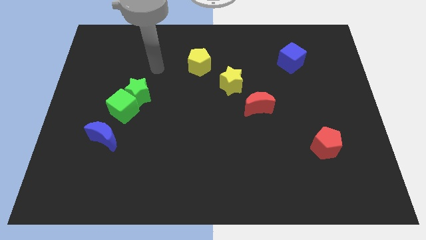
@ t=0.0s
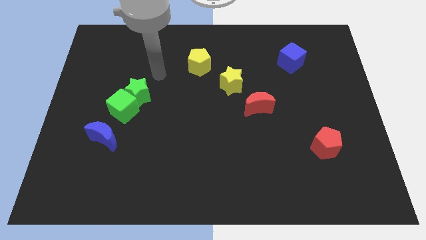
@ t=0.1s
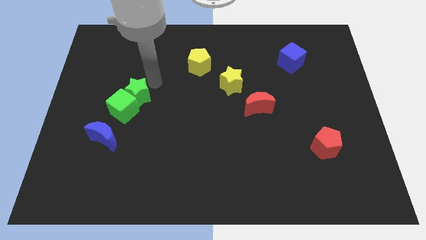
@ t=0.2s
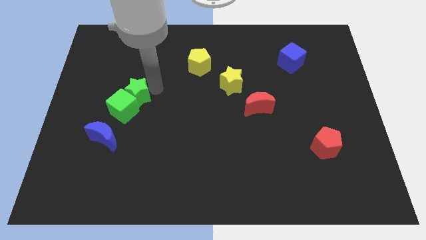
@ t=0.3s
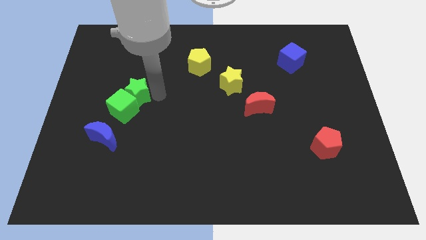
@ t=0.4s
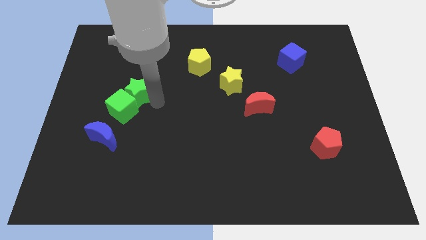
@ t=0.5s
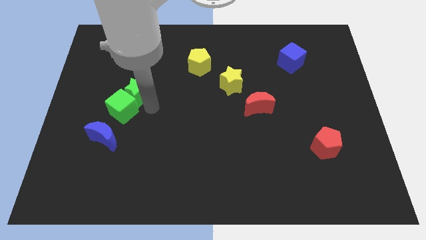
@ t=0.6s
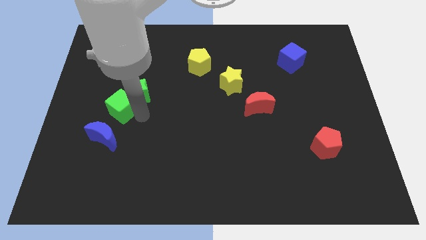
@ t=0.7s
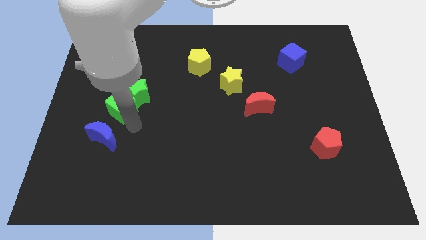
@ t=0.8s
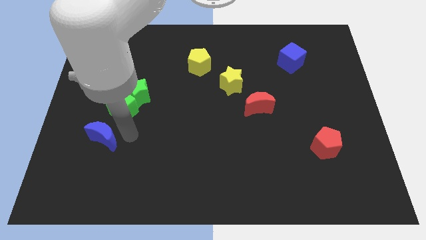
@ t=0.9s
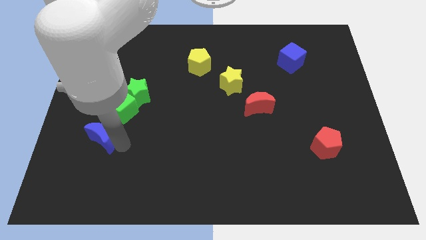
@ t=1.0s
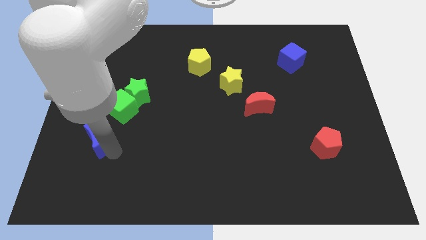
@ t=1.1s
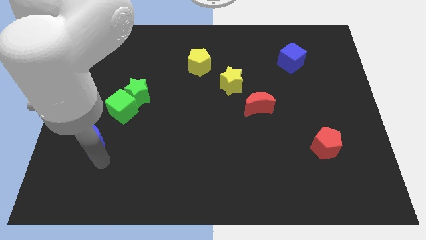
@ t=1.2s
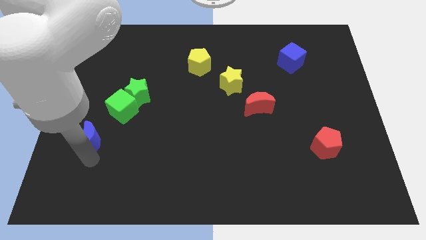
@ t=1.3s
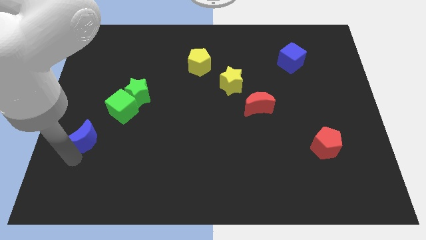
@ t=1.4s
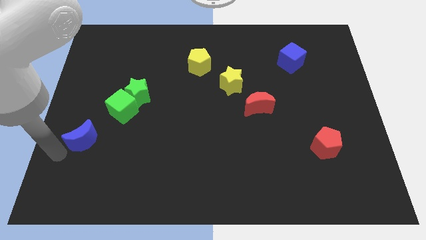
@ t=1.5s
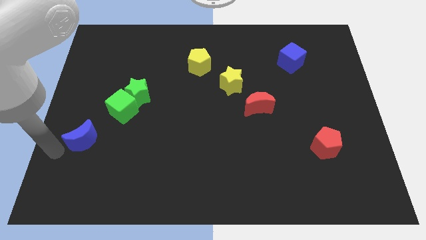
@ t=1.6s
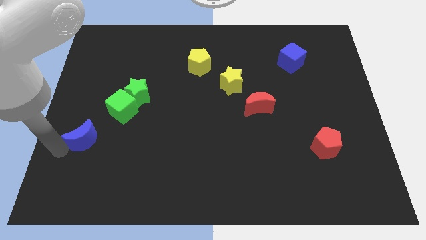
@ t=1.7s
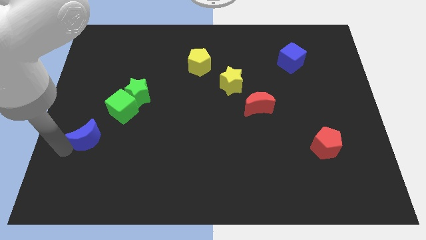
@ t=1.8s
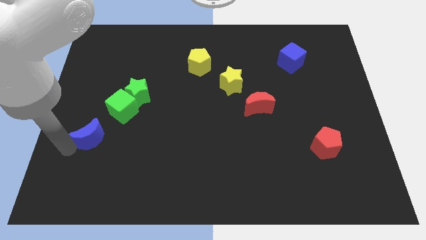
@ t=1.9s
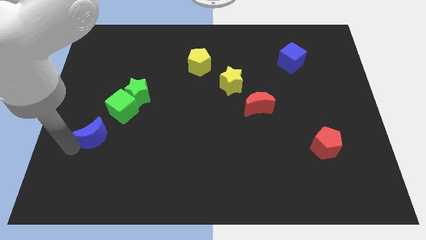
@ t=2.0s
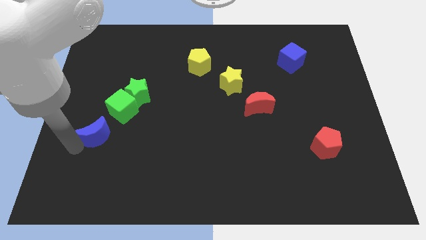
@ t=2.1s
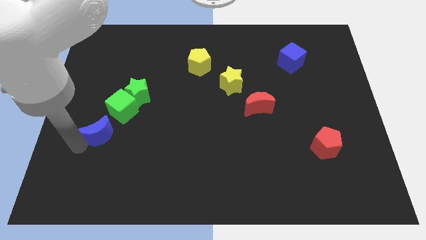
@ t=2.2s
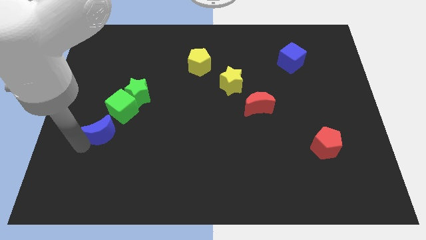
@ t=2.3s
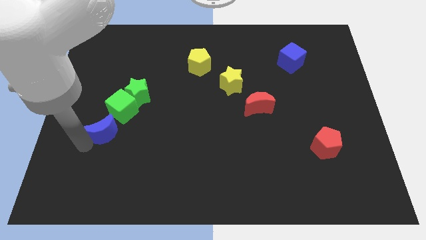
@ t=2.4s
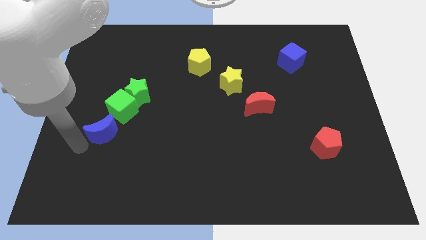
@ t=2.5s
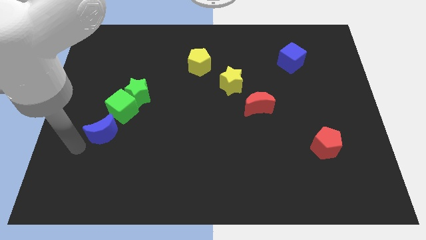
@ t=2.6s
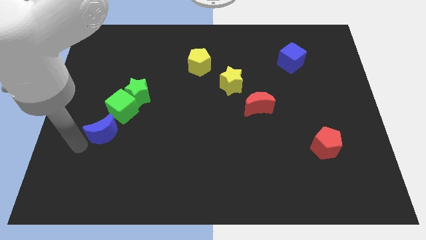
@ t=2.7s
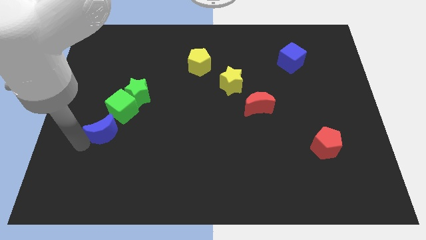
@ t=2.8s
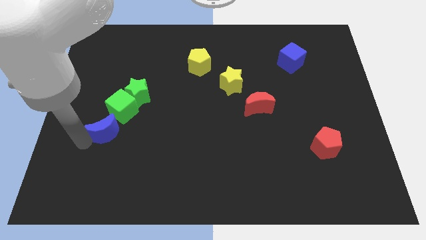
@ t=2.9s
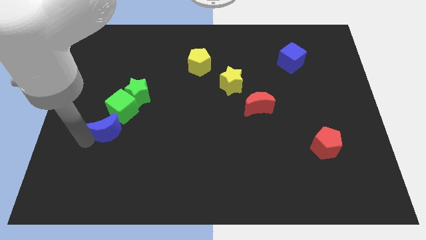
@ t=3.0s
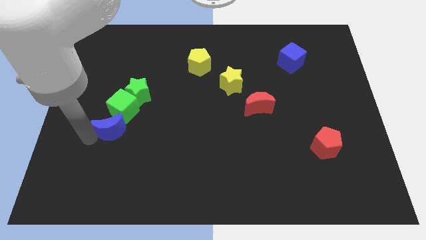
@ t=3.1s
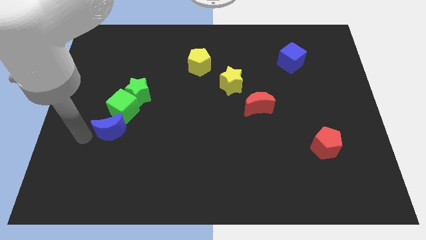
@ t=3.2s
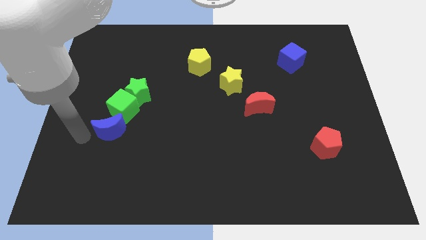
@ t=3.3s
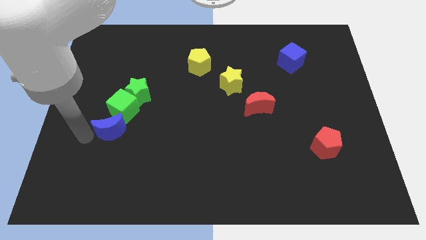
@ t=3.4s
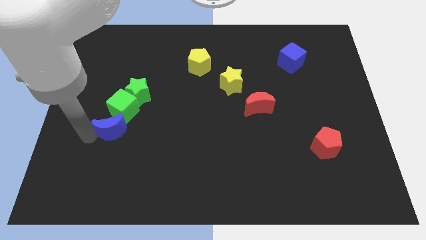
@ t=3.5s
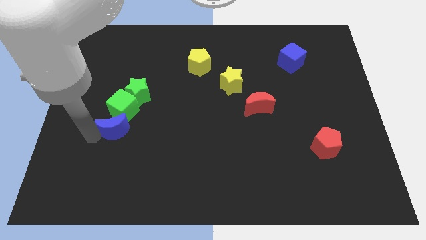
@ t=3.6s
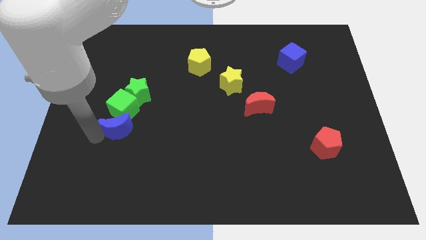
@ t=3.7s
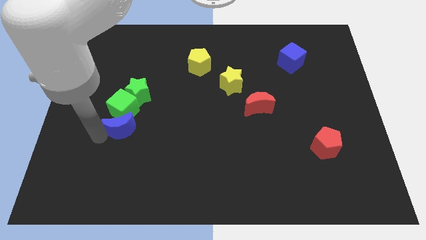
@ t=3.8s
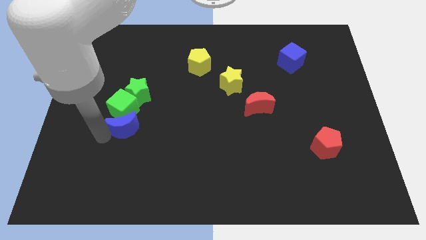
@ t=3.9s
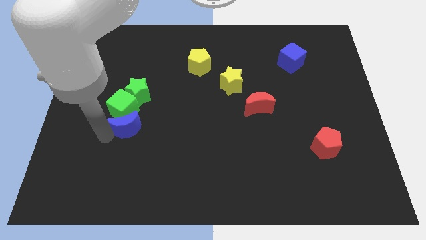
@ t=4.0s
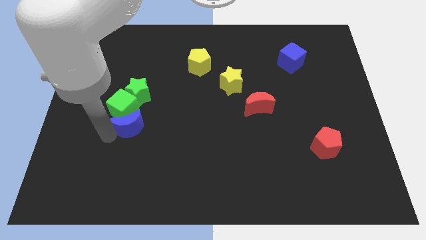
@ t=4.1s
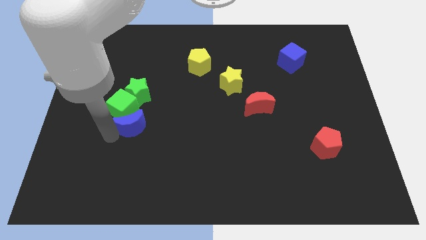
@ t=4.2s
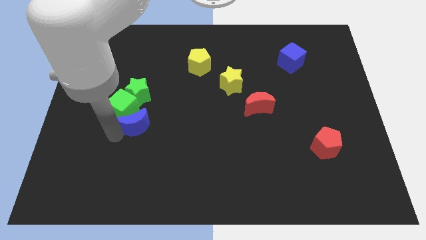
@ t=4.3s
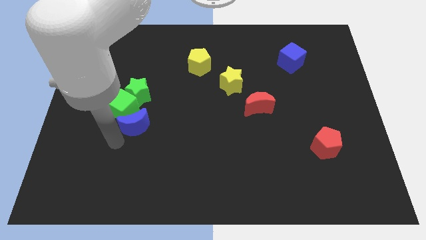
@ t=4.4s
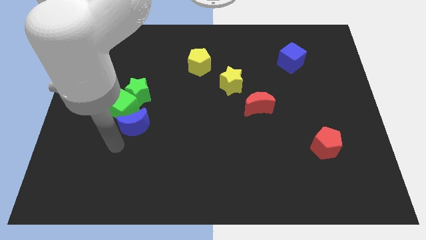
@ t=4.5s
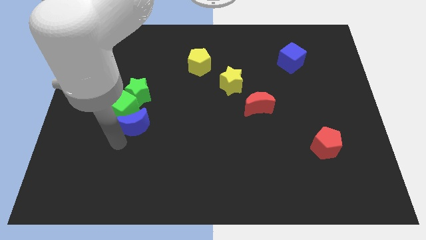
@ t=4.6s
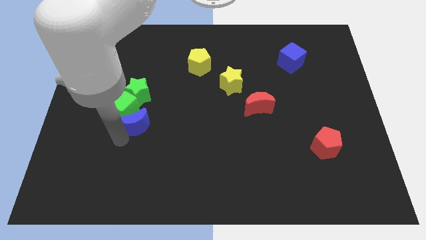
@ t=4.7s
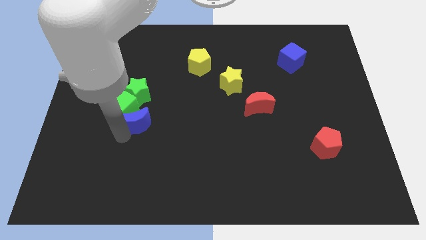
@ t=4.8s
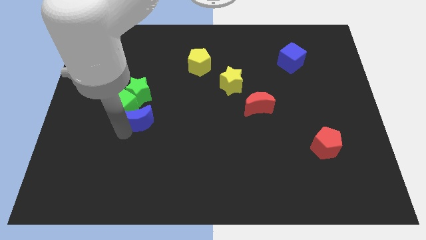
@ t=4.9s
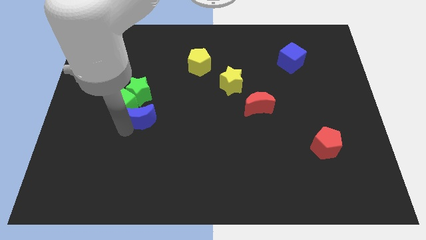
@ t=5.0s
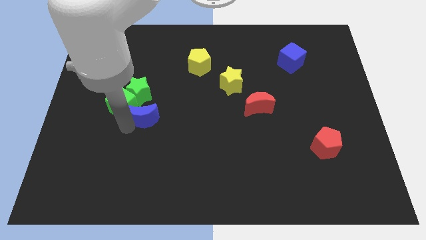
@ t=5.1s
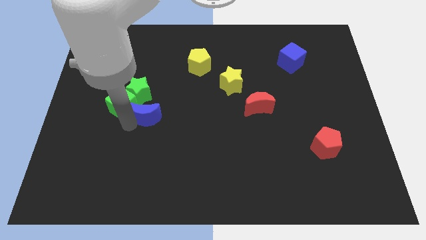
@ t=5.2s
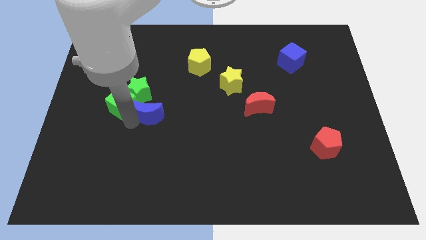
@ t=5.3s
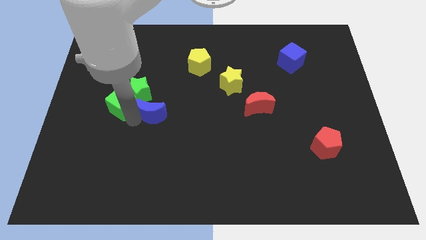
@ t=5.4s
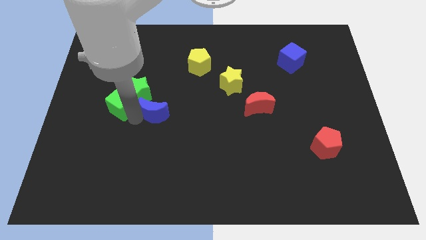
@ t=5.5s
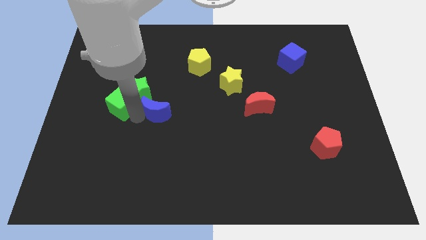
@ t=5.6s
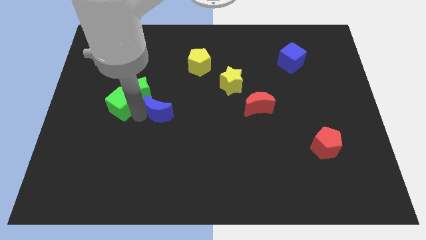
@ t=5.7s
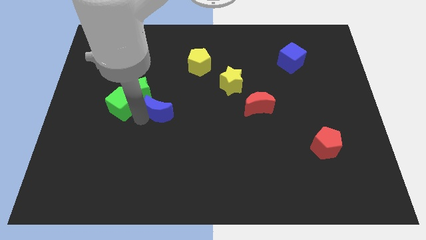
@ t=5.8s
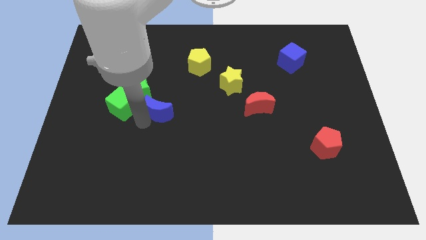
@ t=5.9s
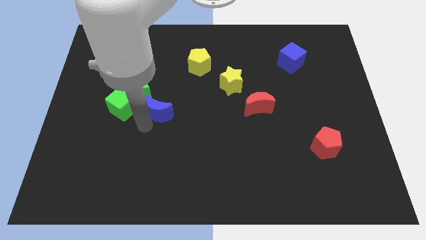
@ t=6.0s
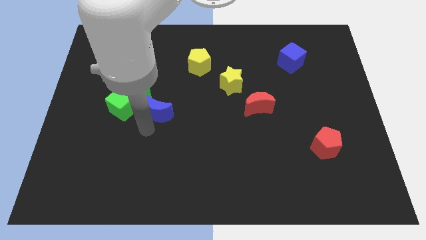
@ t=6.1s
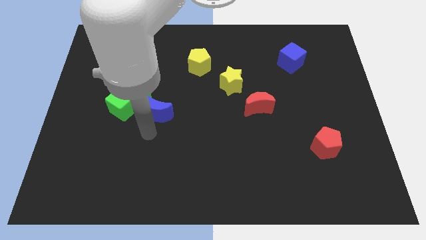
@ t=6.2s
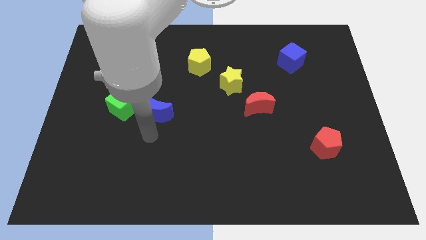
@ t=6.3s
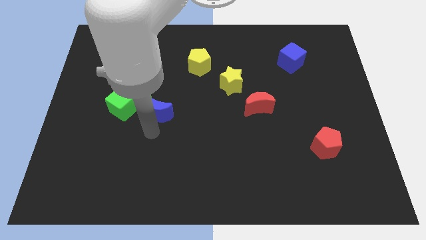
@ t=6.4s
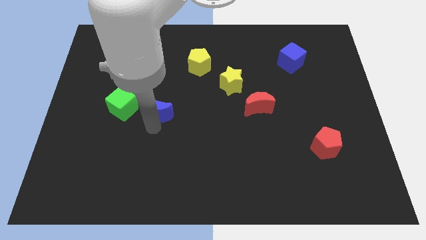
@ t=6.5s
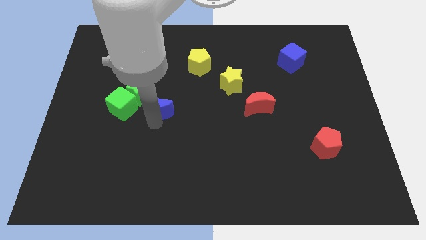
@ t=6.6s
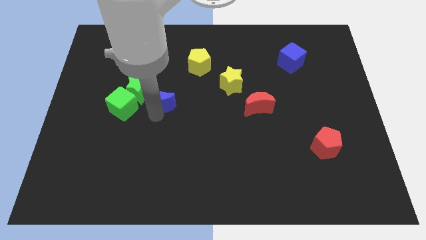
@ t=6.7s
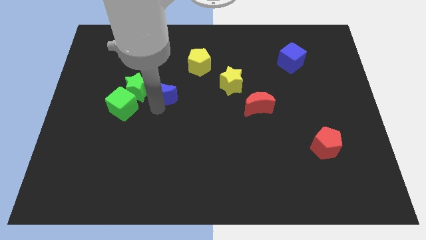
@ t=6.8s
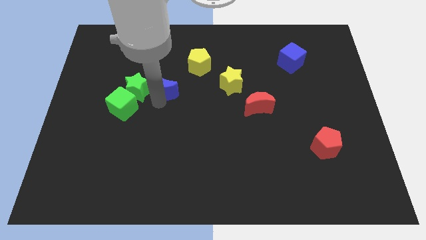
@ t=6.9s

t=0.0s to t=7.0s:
slide the blue moon to the bottom left of the yellow pentagon

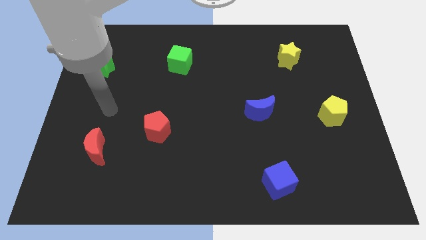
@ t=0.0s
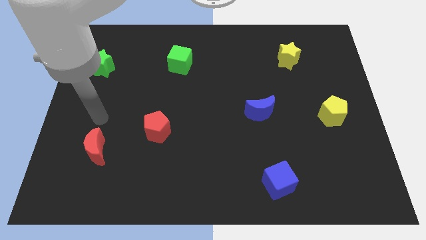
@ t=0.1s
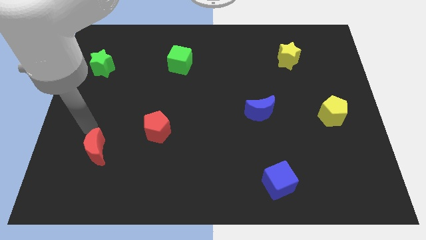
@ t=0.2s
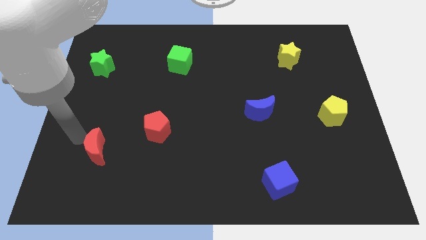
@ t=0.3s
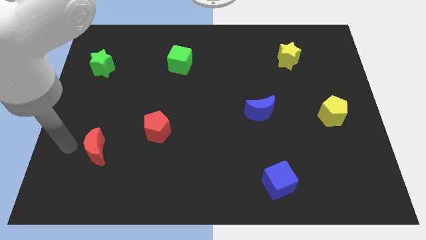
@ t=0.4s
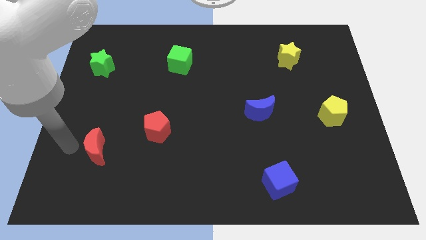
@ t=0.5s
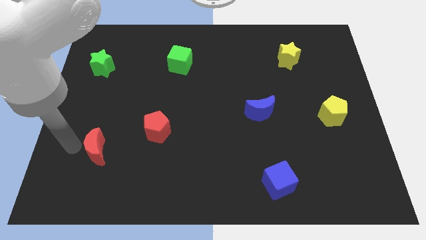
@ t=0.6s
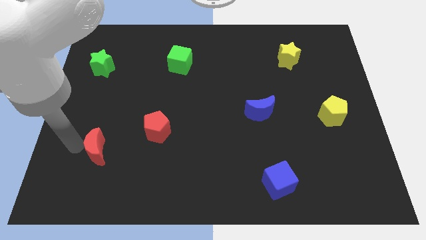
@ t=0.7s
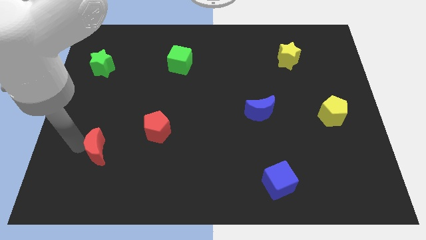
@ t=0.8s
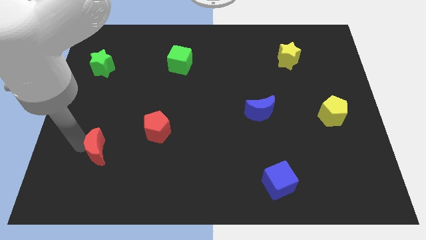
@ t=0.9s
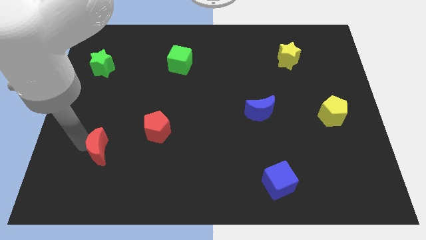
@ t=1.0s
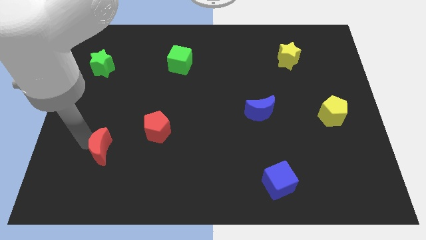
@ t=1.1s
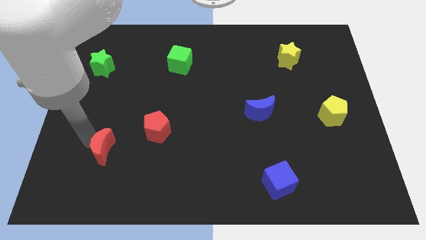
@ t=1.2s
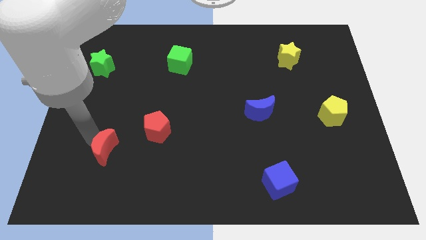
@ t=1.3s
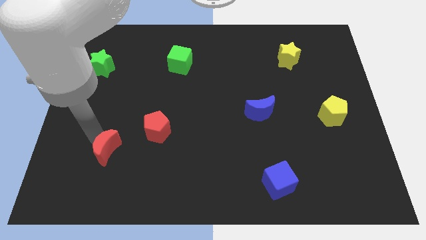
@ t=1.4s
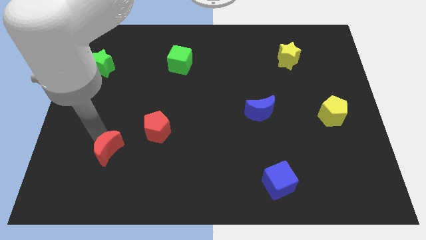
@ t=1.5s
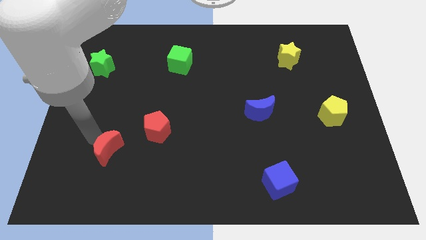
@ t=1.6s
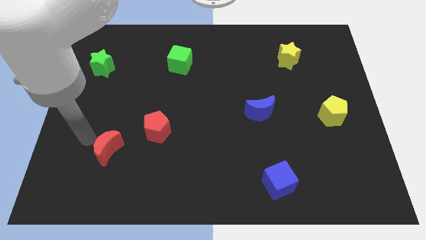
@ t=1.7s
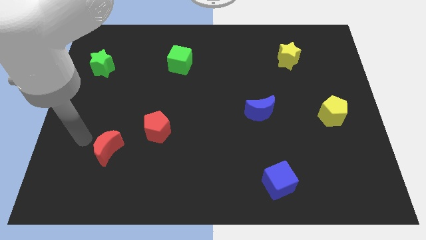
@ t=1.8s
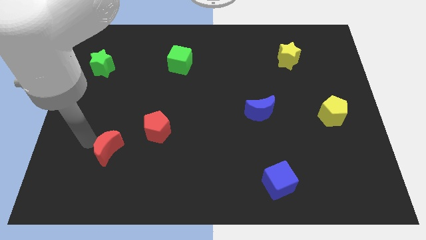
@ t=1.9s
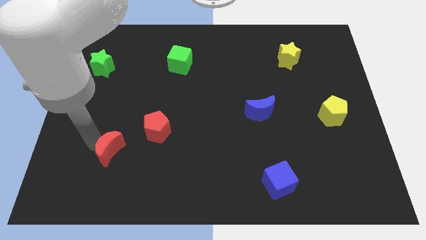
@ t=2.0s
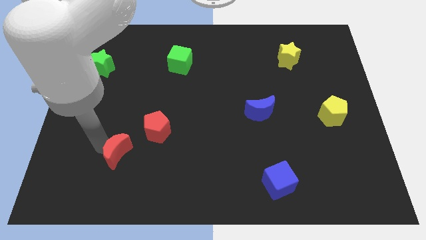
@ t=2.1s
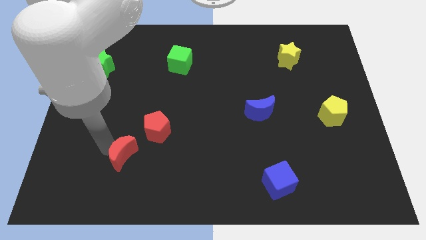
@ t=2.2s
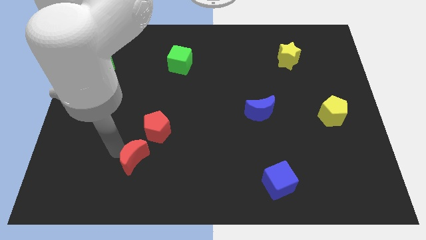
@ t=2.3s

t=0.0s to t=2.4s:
slide the red moon to the bottom of the red pentagon
